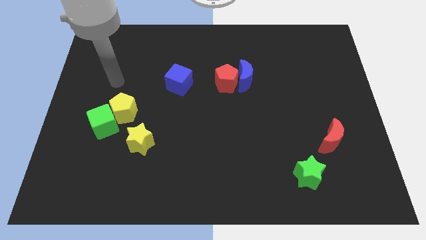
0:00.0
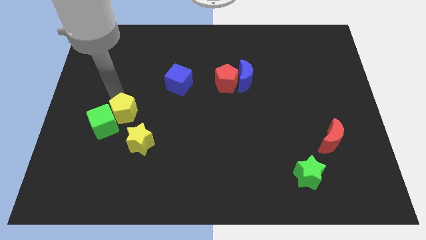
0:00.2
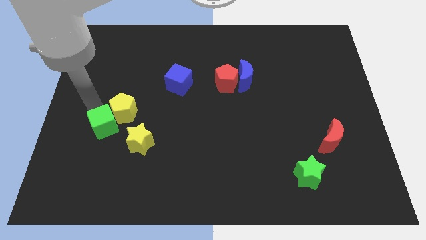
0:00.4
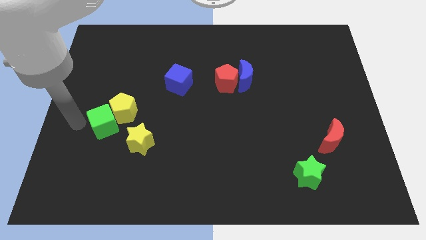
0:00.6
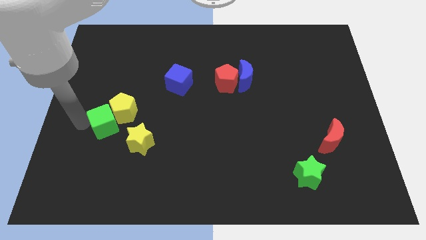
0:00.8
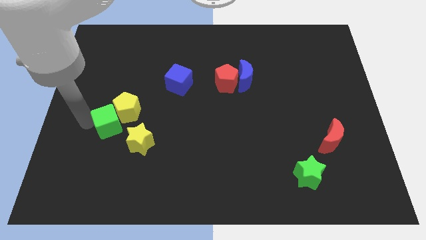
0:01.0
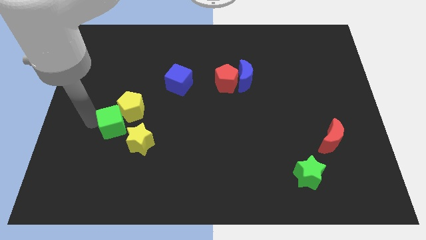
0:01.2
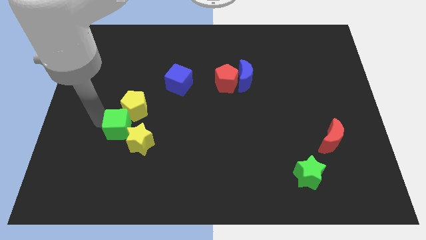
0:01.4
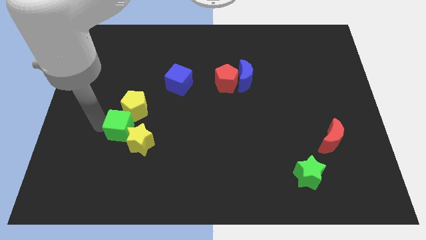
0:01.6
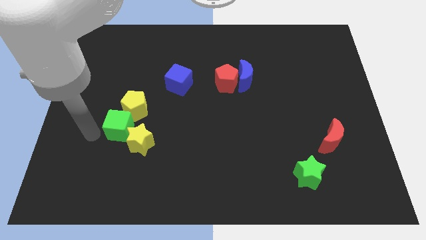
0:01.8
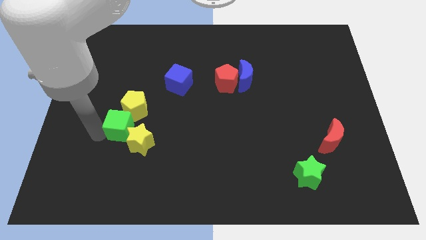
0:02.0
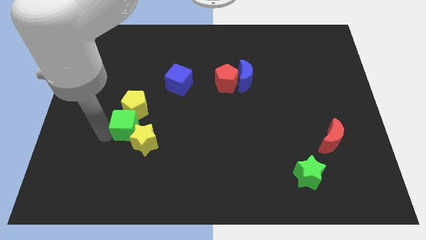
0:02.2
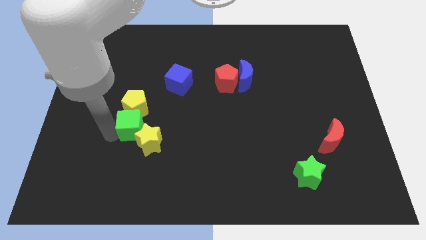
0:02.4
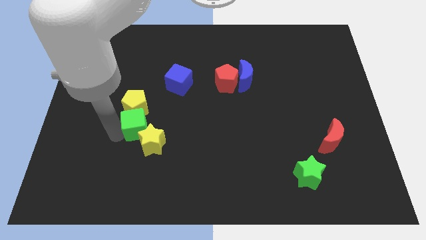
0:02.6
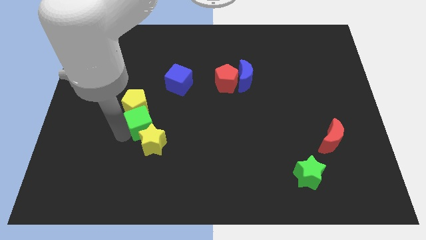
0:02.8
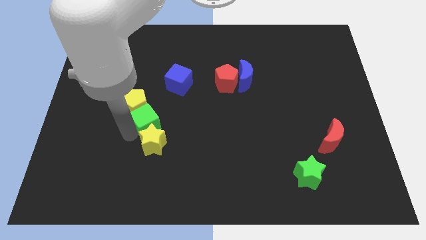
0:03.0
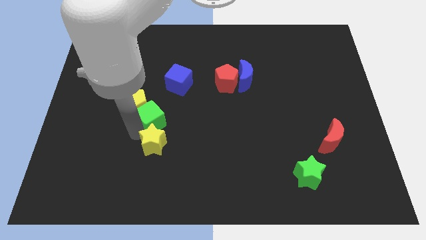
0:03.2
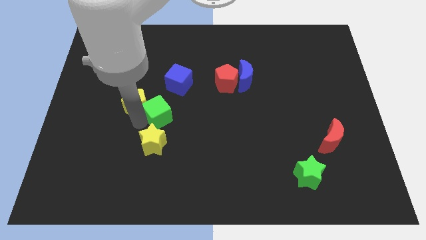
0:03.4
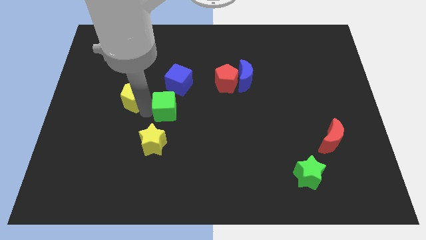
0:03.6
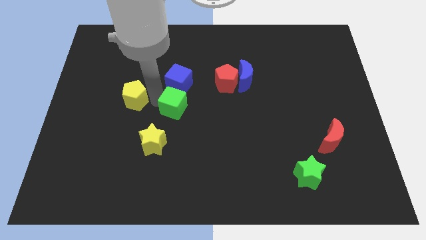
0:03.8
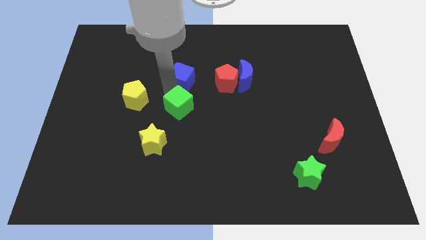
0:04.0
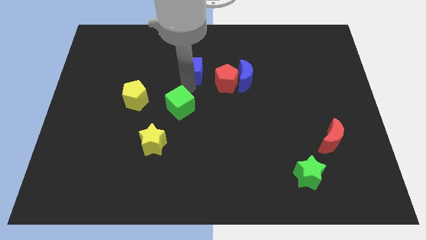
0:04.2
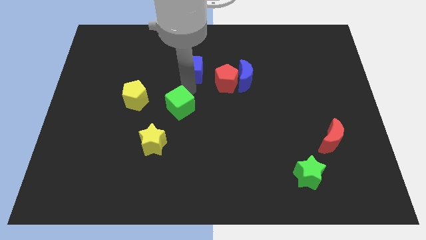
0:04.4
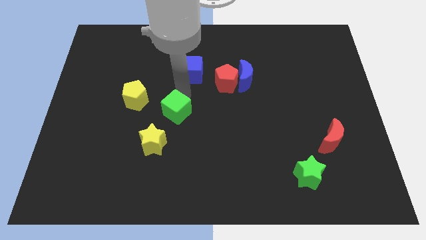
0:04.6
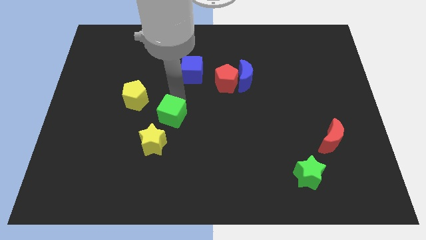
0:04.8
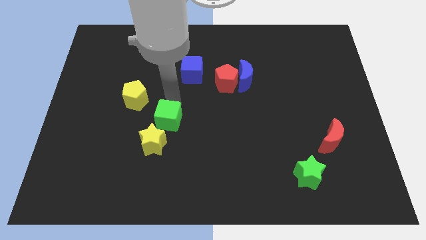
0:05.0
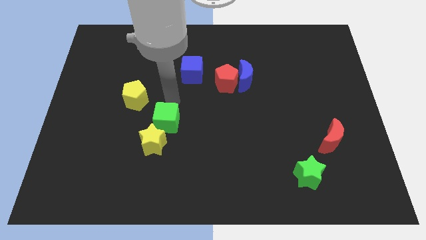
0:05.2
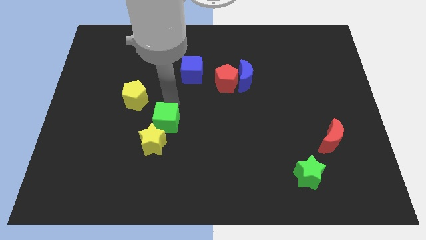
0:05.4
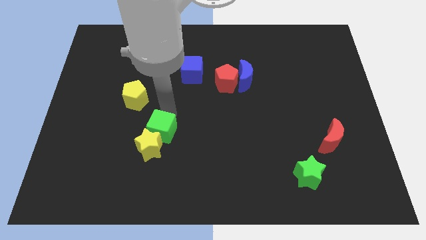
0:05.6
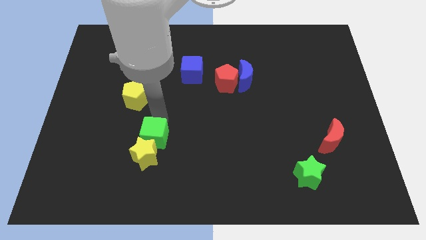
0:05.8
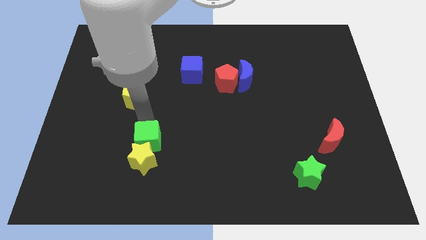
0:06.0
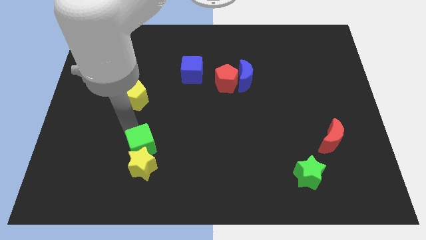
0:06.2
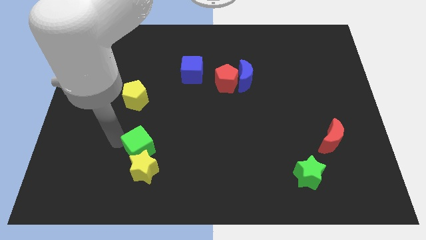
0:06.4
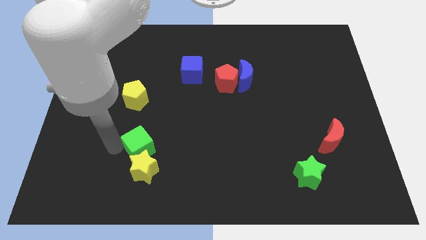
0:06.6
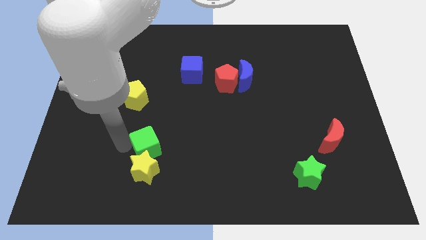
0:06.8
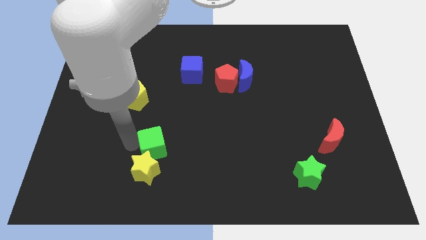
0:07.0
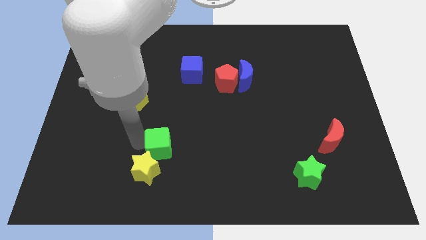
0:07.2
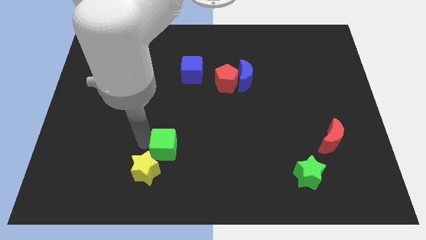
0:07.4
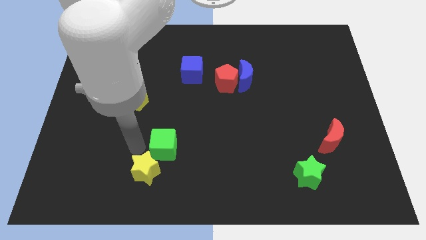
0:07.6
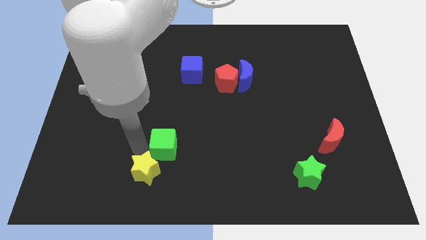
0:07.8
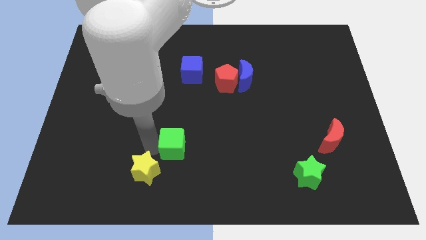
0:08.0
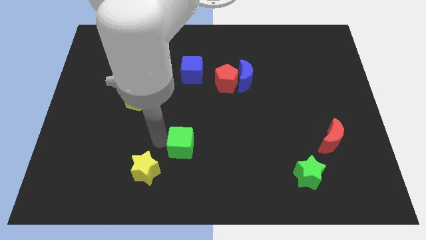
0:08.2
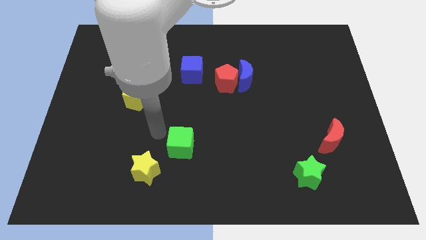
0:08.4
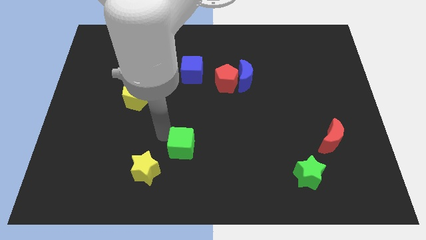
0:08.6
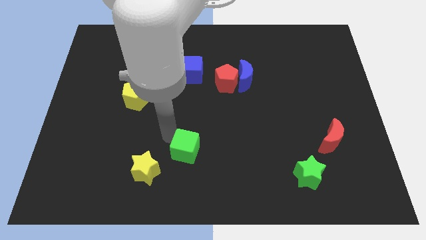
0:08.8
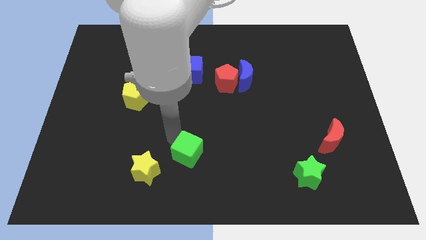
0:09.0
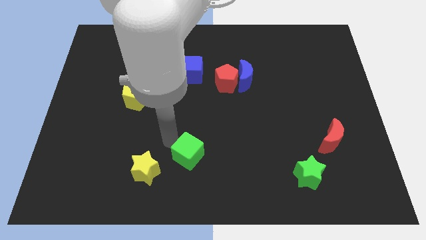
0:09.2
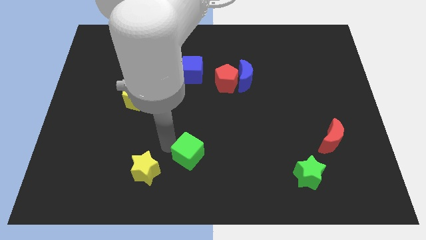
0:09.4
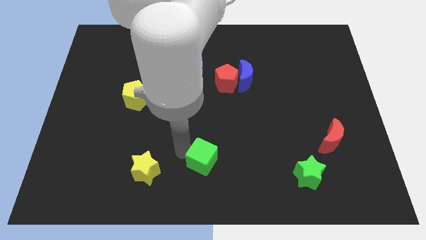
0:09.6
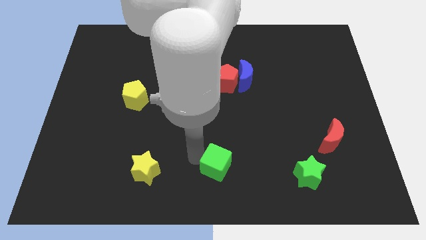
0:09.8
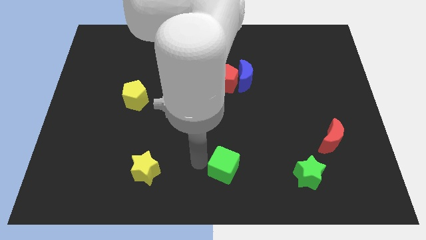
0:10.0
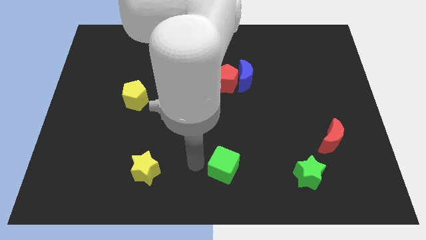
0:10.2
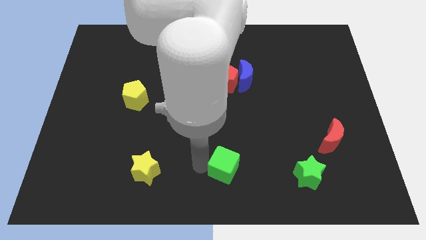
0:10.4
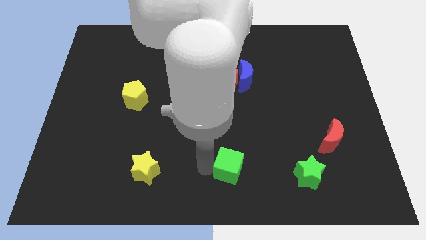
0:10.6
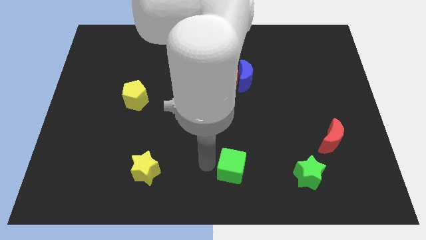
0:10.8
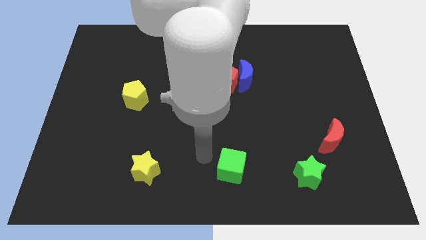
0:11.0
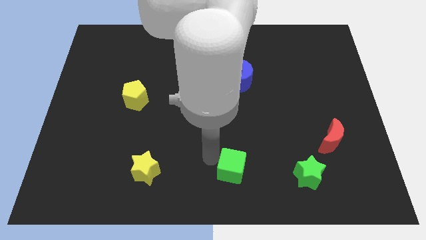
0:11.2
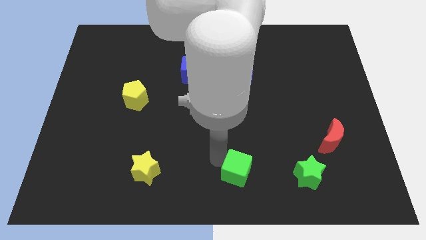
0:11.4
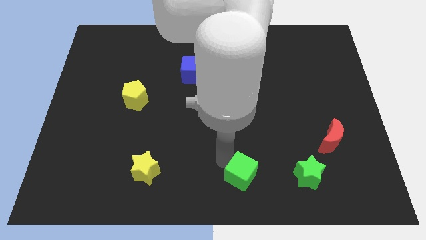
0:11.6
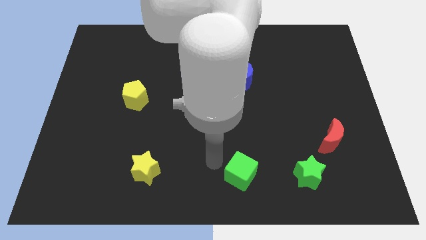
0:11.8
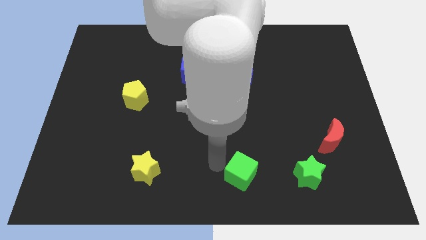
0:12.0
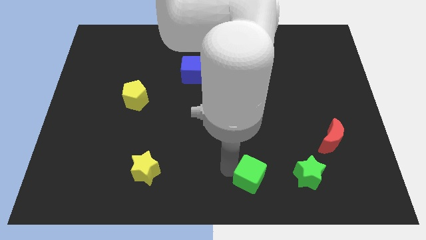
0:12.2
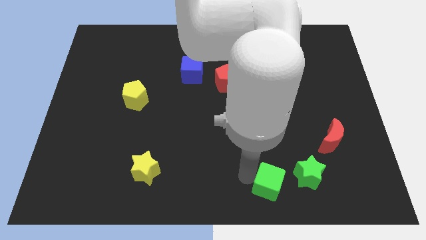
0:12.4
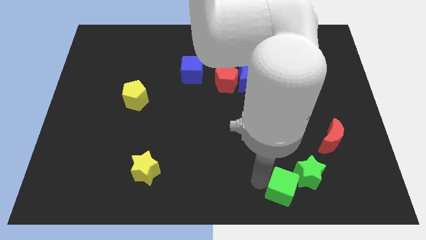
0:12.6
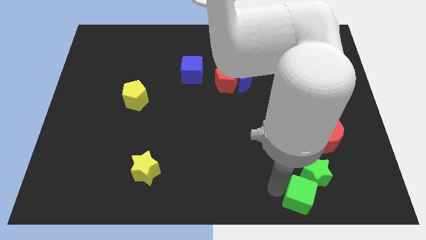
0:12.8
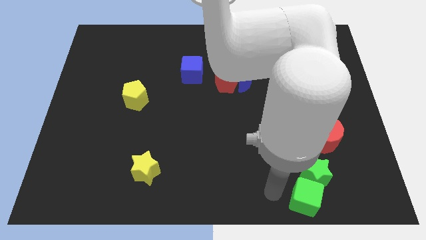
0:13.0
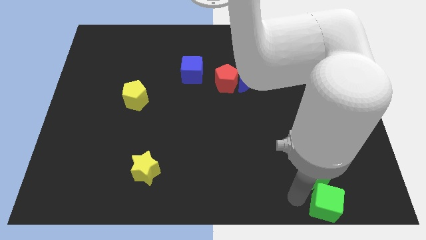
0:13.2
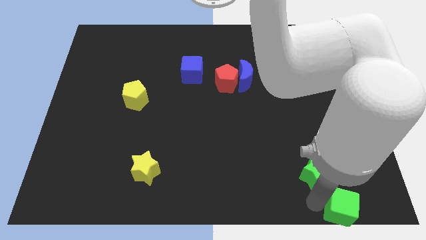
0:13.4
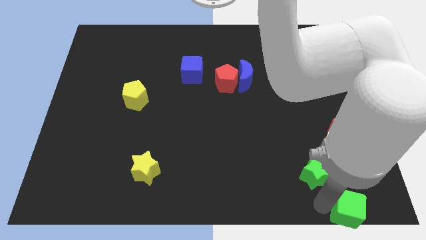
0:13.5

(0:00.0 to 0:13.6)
push the green cube to the bottom right
